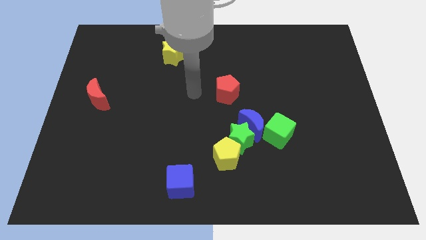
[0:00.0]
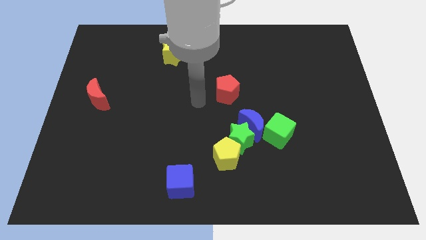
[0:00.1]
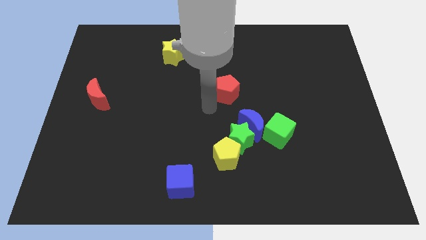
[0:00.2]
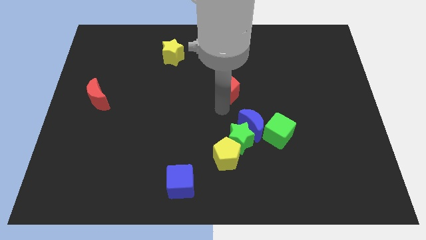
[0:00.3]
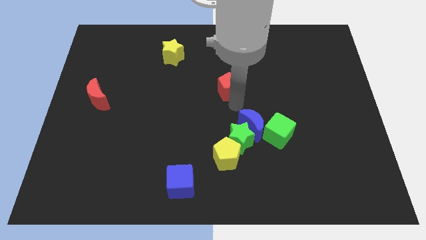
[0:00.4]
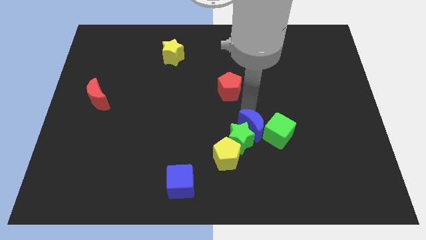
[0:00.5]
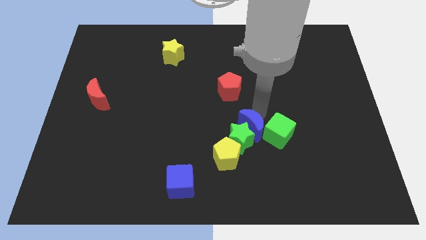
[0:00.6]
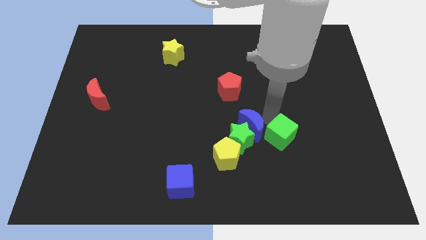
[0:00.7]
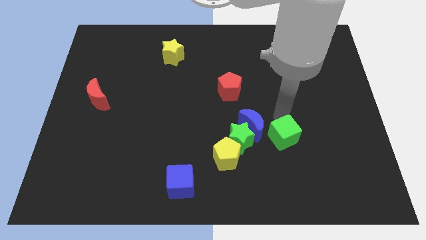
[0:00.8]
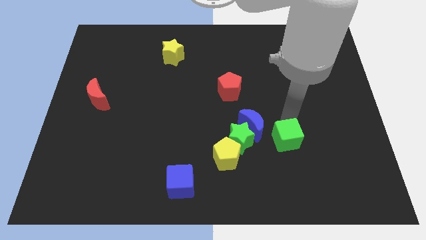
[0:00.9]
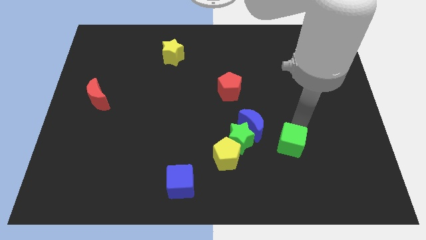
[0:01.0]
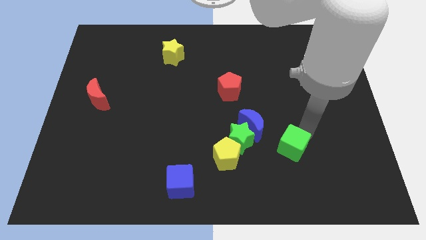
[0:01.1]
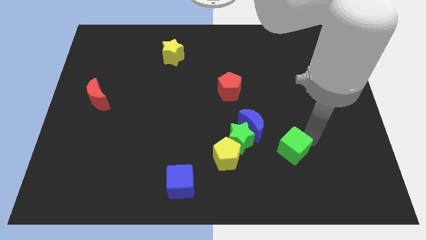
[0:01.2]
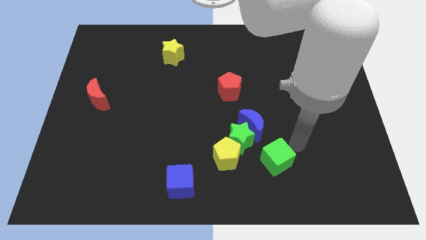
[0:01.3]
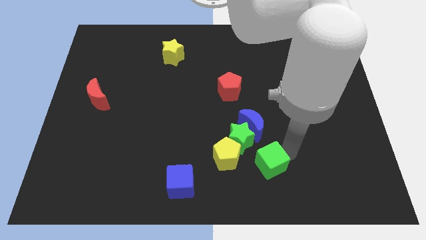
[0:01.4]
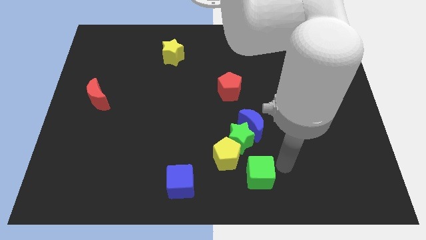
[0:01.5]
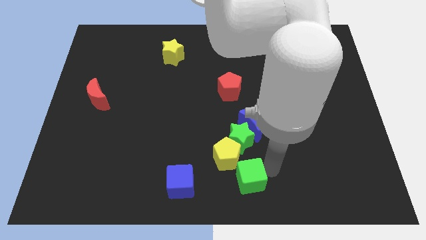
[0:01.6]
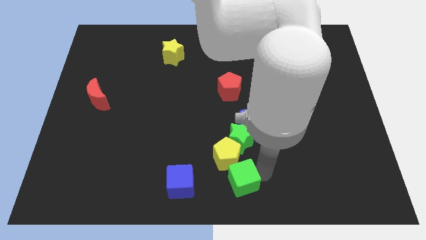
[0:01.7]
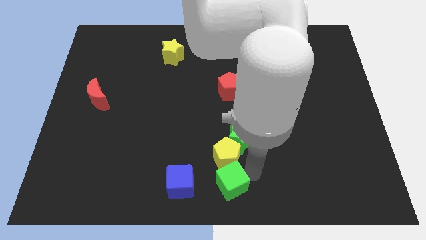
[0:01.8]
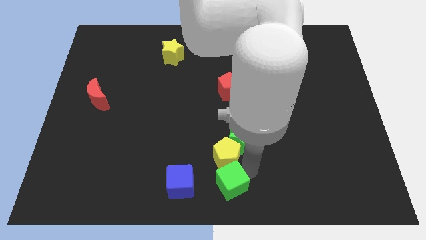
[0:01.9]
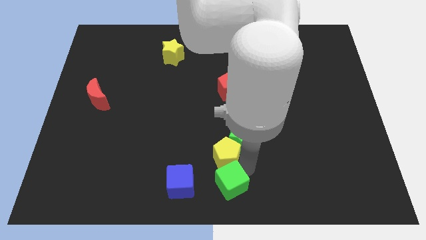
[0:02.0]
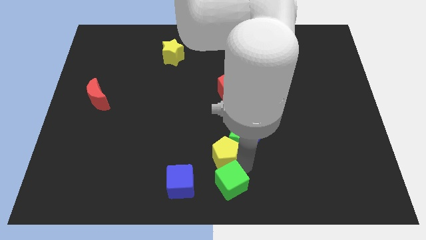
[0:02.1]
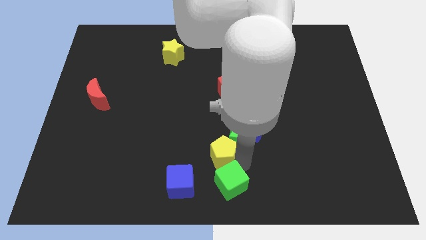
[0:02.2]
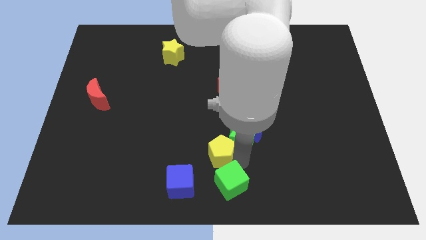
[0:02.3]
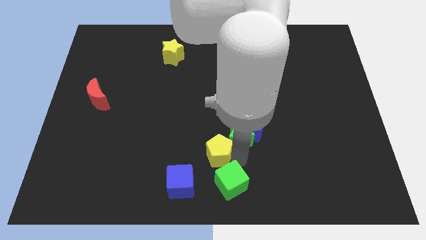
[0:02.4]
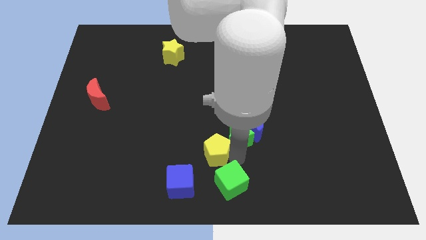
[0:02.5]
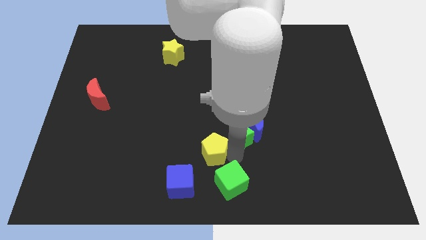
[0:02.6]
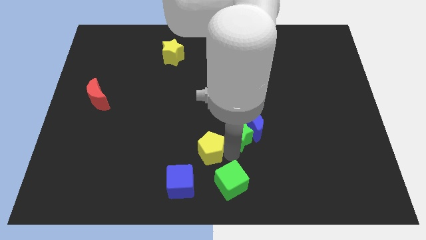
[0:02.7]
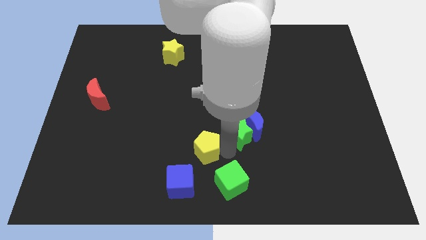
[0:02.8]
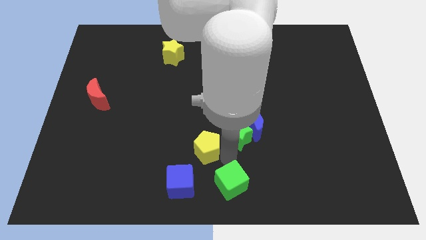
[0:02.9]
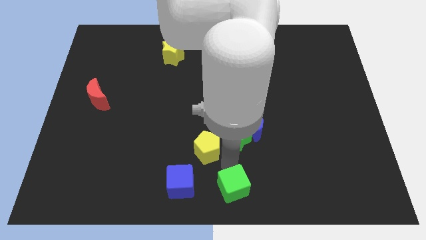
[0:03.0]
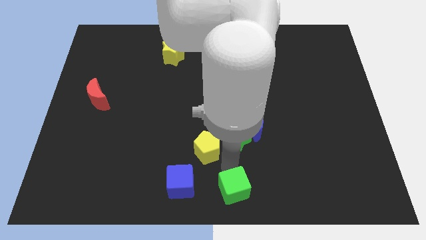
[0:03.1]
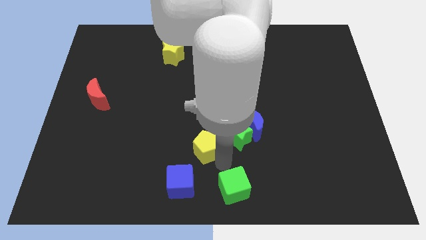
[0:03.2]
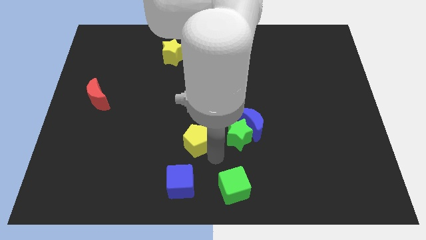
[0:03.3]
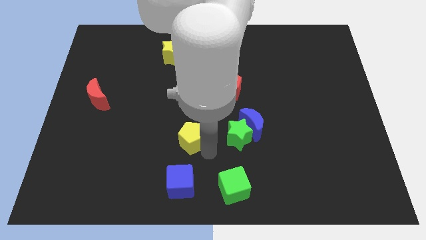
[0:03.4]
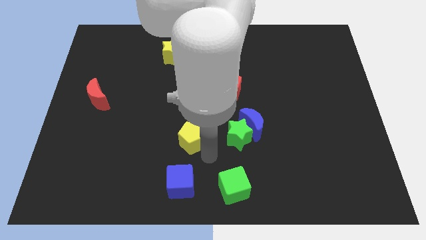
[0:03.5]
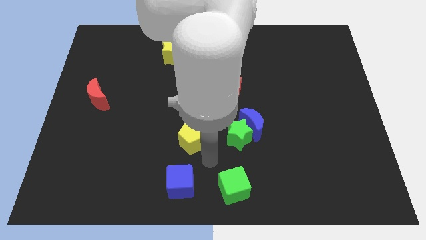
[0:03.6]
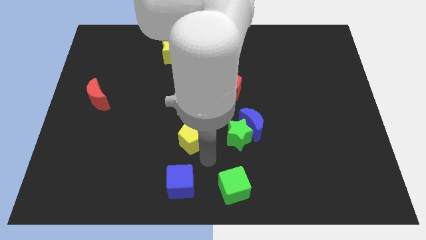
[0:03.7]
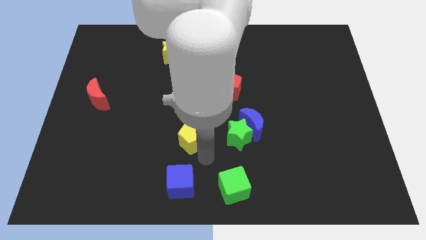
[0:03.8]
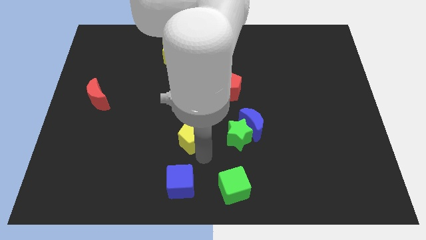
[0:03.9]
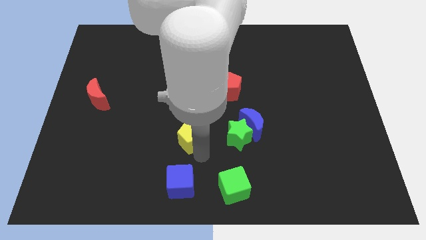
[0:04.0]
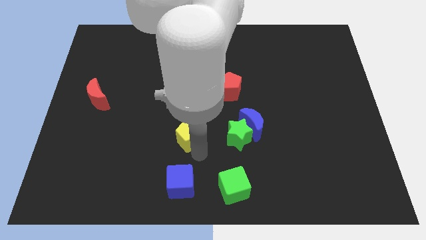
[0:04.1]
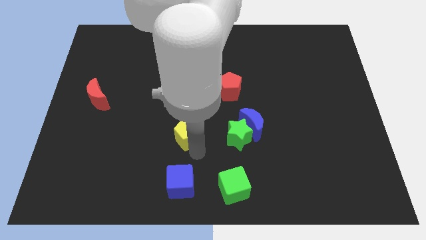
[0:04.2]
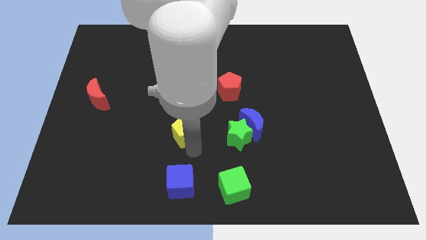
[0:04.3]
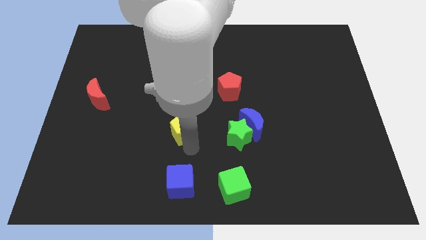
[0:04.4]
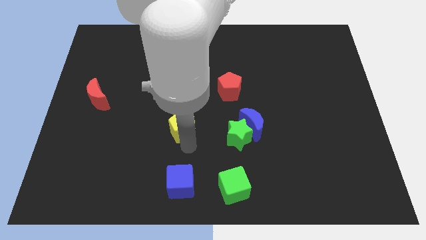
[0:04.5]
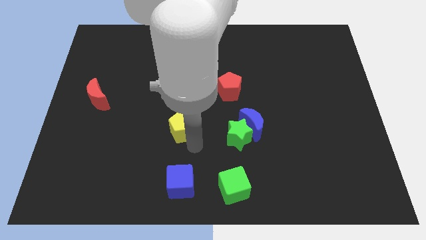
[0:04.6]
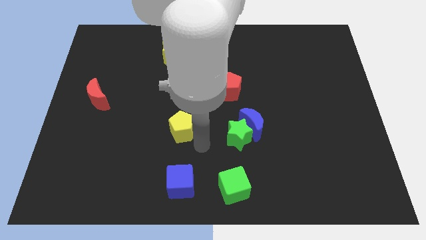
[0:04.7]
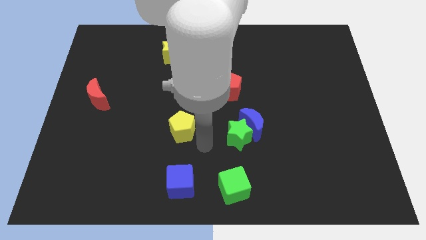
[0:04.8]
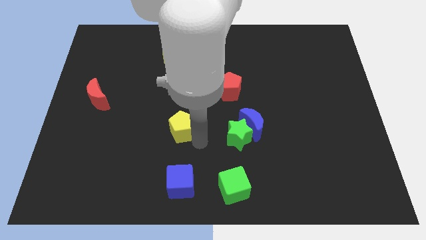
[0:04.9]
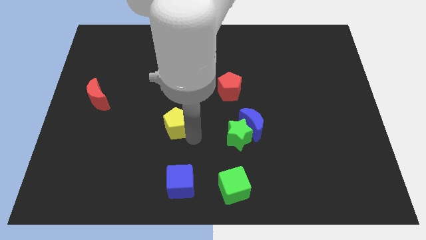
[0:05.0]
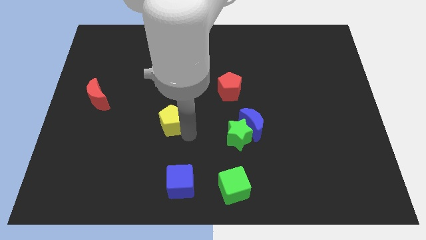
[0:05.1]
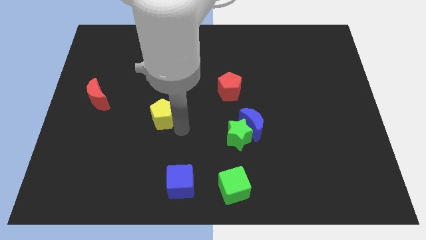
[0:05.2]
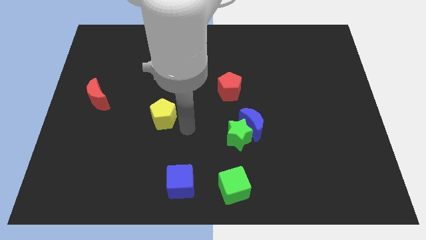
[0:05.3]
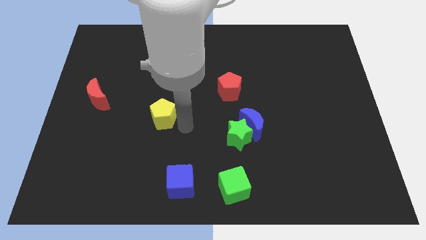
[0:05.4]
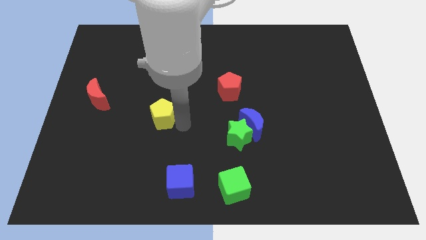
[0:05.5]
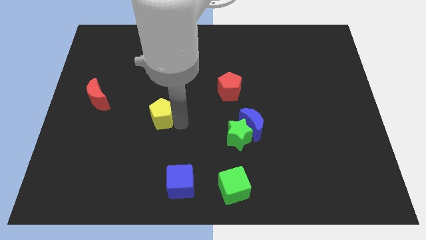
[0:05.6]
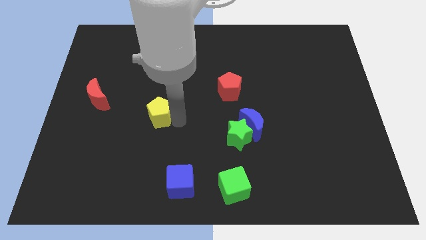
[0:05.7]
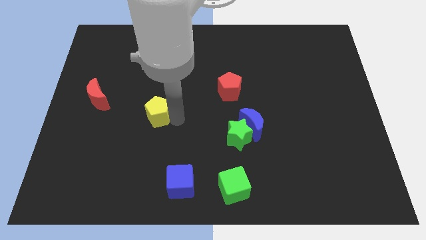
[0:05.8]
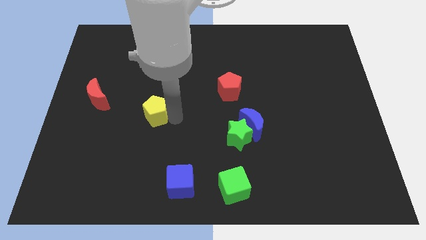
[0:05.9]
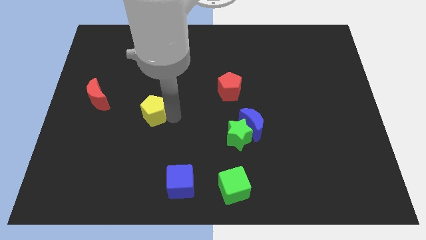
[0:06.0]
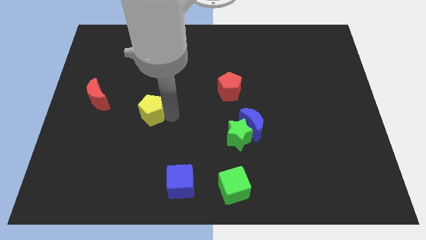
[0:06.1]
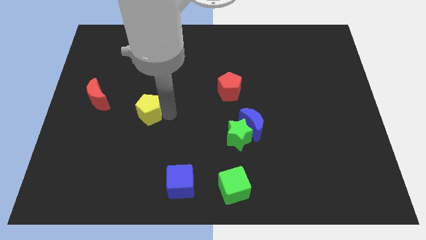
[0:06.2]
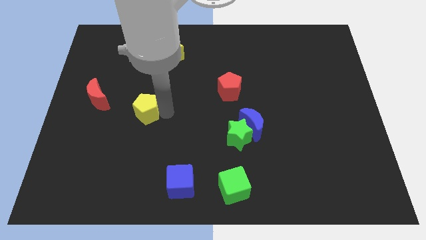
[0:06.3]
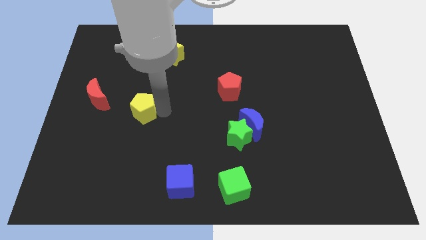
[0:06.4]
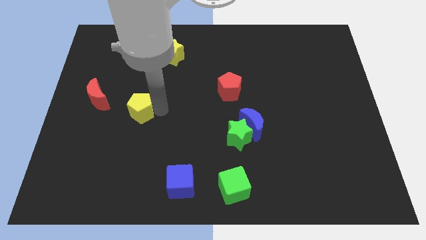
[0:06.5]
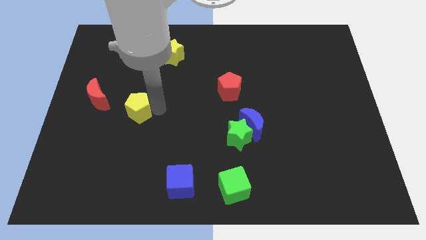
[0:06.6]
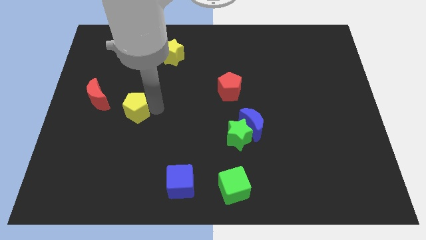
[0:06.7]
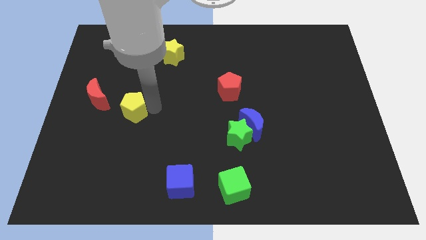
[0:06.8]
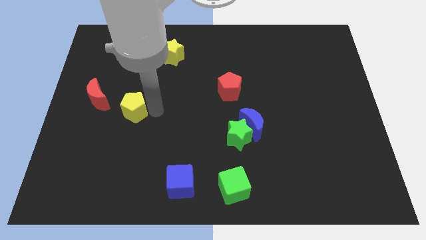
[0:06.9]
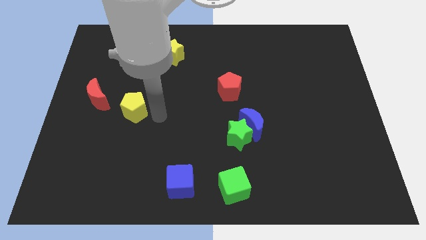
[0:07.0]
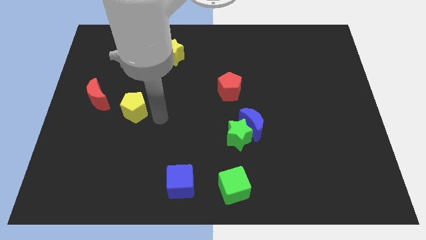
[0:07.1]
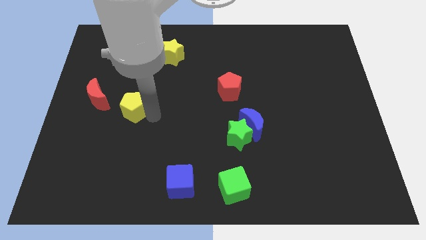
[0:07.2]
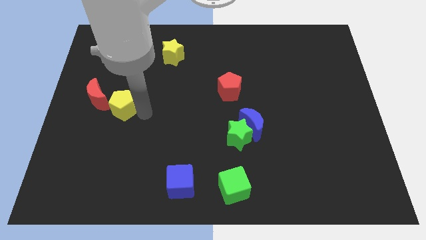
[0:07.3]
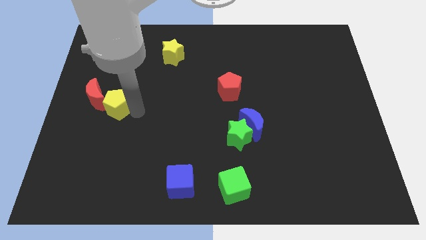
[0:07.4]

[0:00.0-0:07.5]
put the yellow pentagon close to the red moon

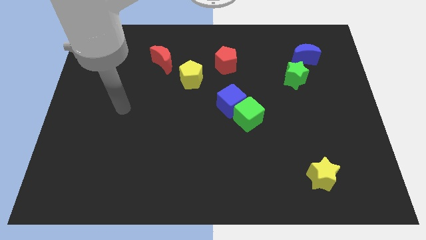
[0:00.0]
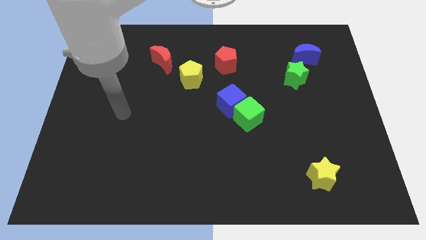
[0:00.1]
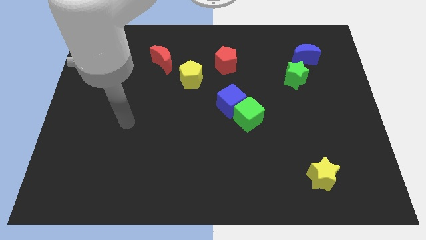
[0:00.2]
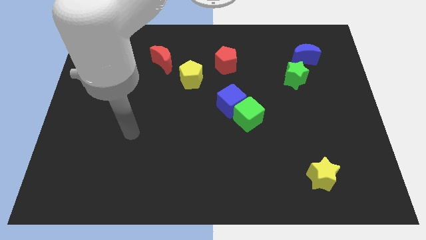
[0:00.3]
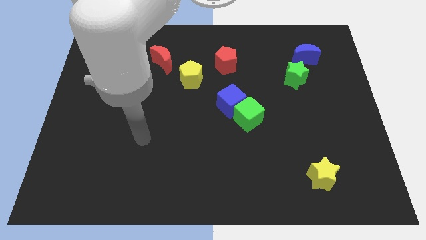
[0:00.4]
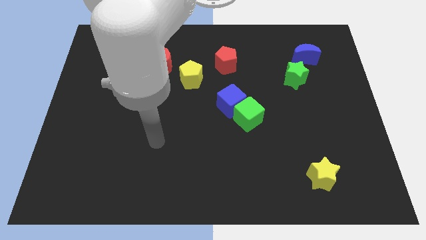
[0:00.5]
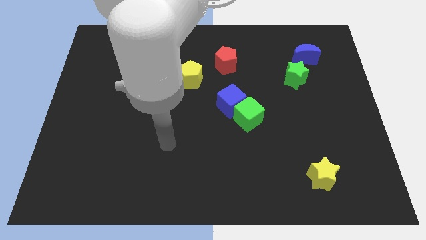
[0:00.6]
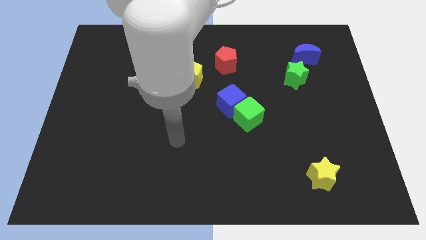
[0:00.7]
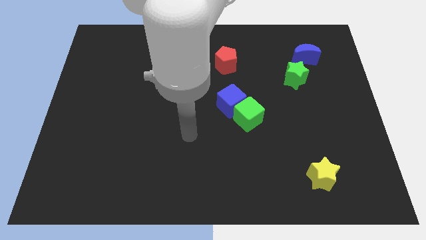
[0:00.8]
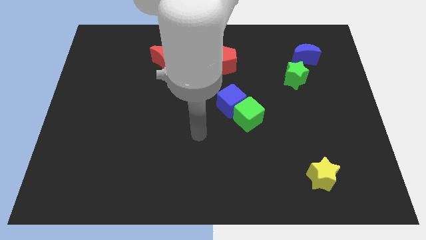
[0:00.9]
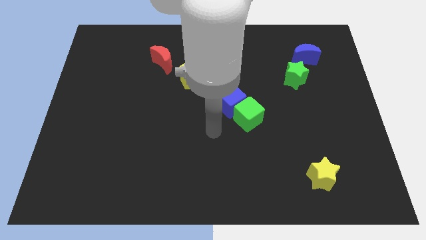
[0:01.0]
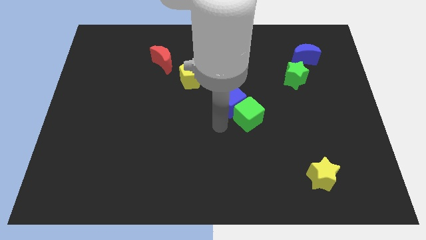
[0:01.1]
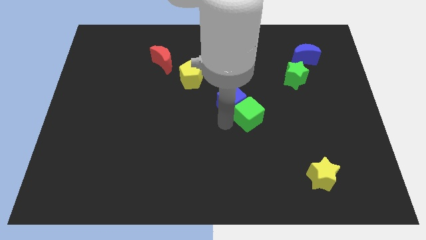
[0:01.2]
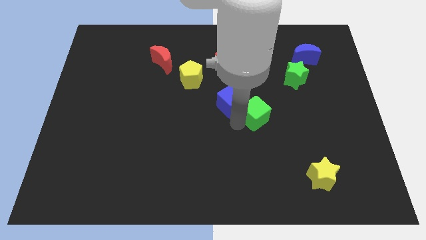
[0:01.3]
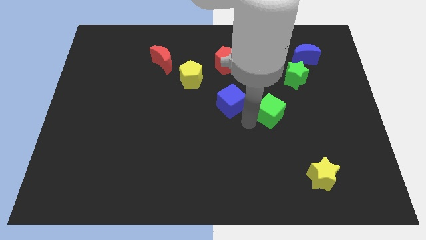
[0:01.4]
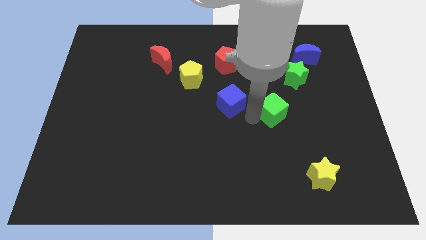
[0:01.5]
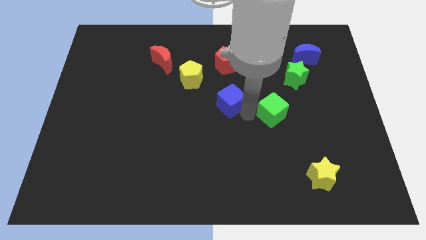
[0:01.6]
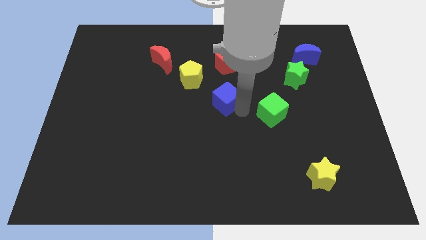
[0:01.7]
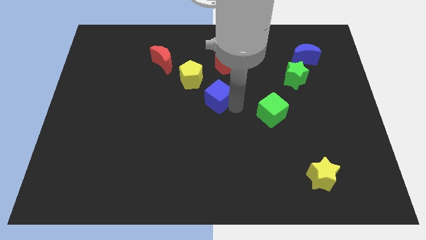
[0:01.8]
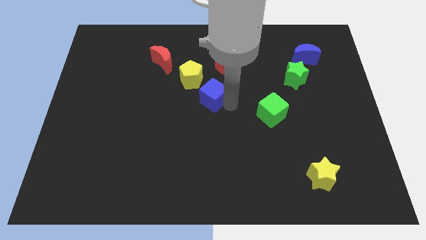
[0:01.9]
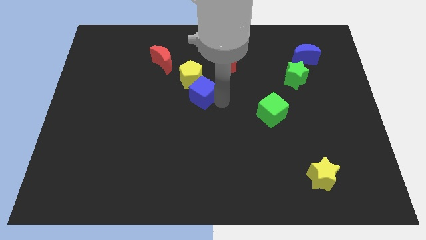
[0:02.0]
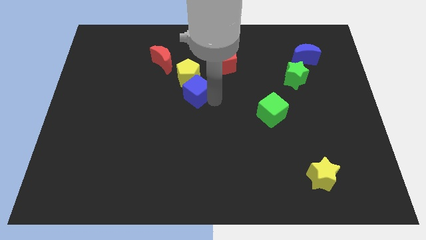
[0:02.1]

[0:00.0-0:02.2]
slide the blue cube to the yellow pentagon
